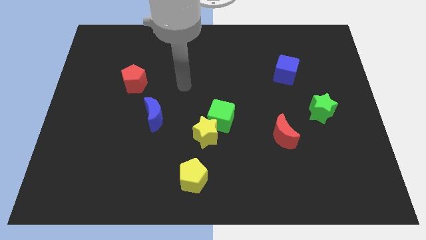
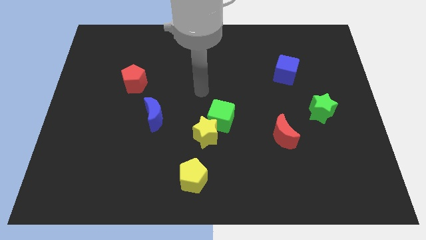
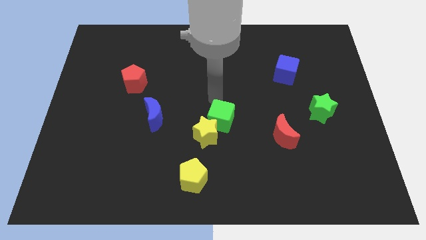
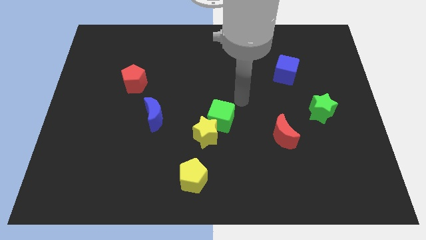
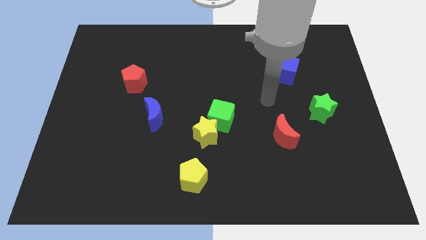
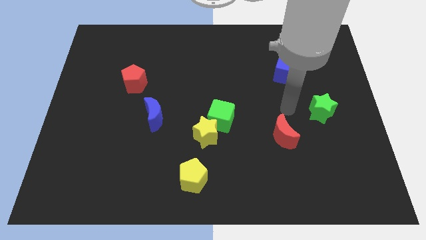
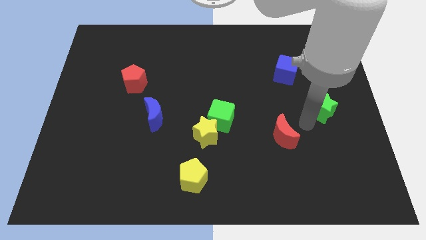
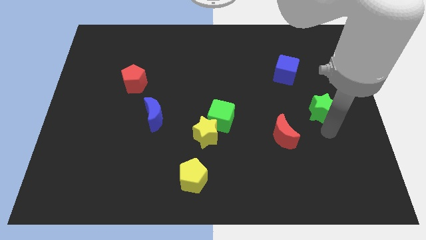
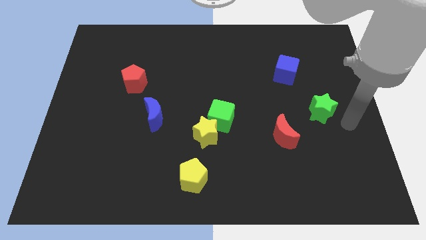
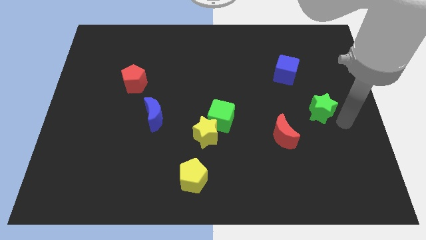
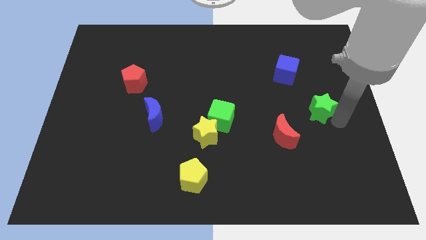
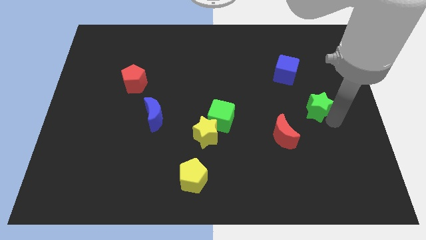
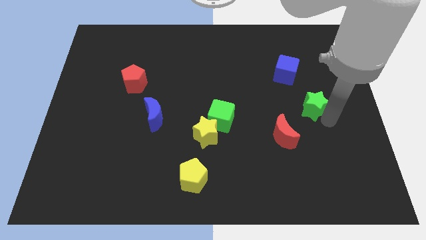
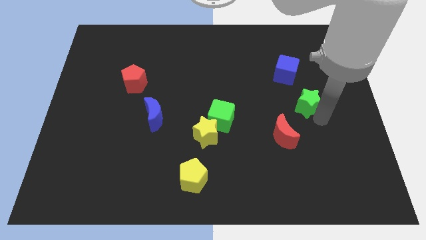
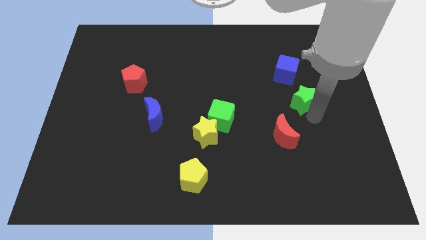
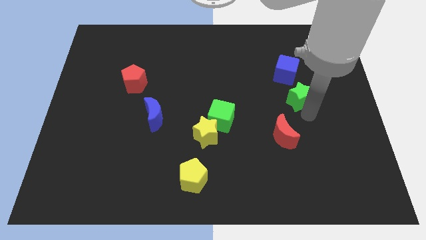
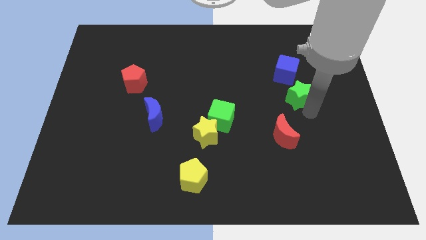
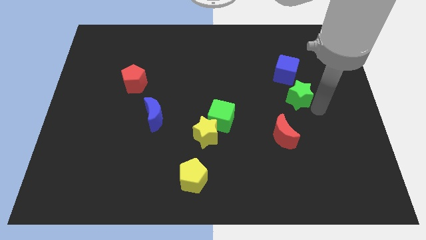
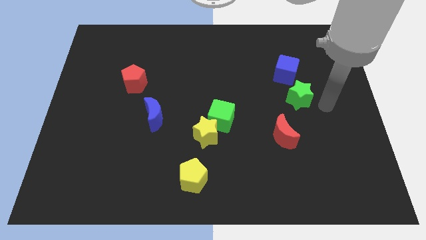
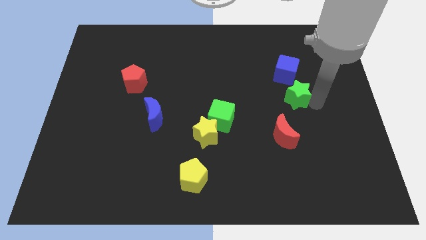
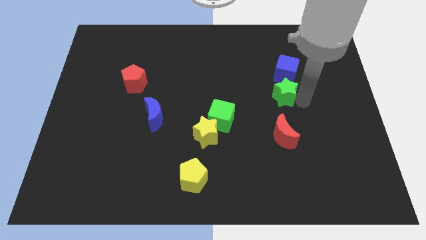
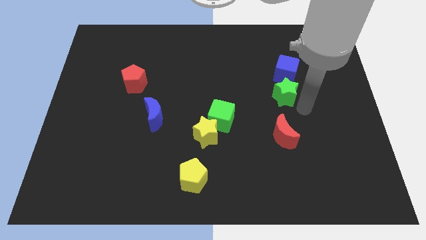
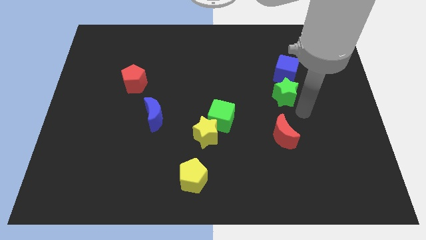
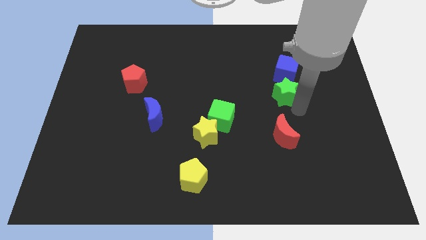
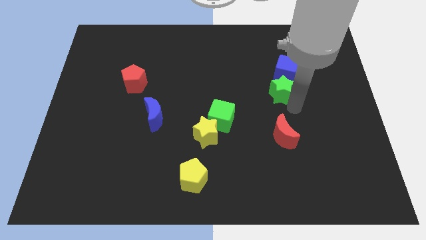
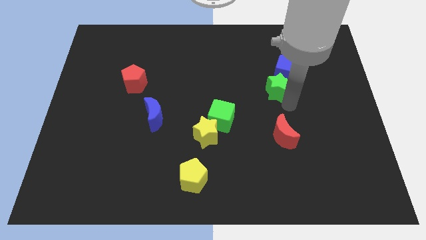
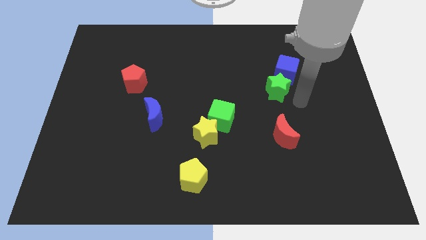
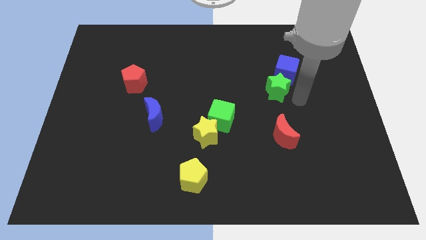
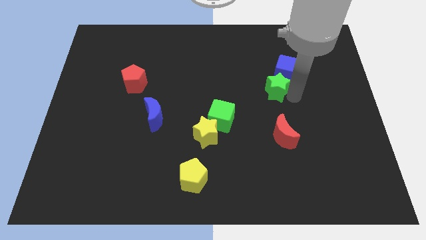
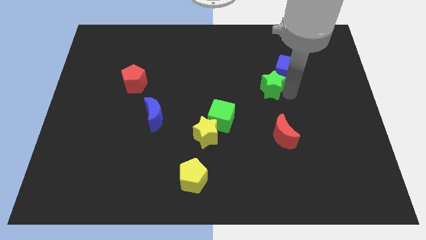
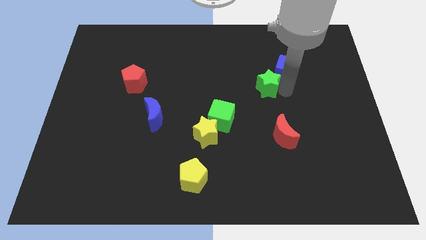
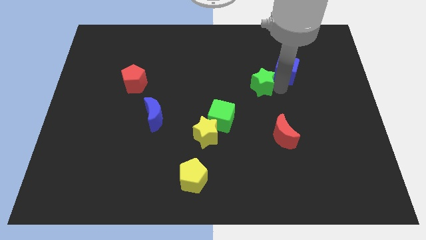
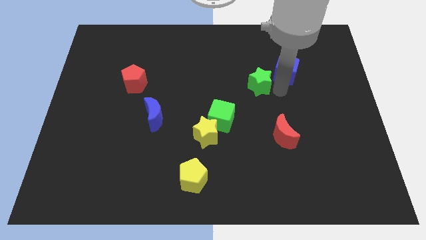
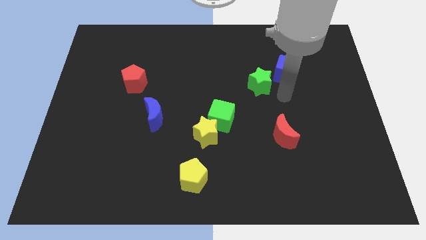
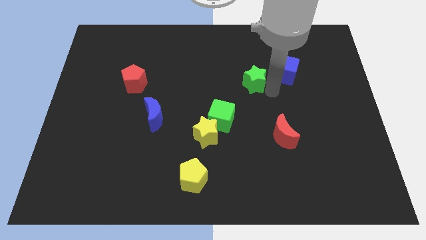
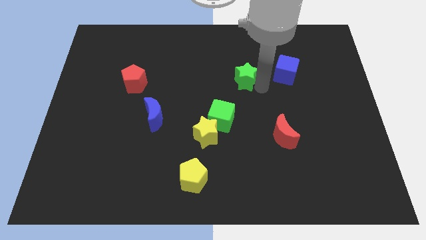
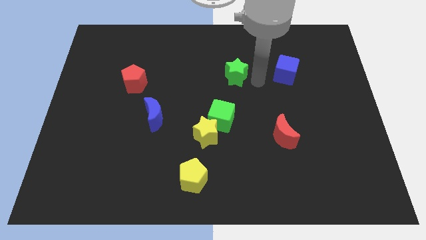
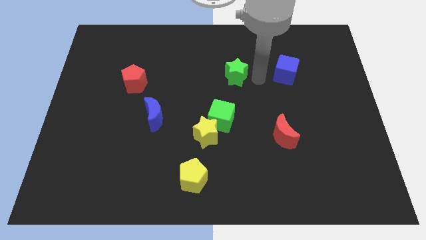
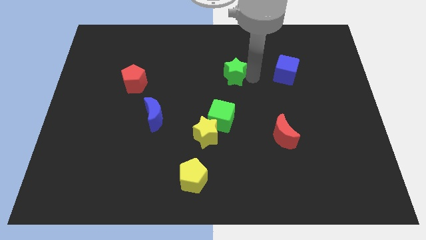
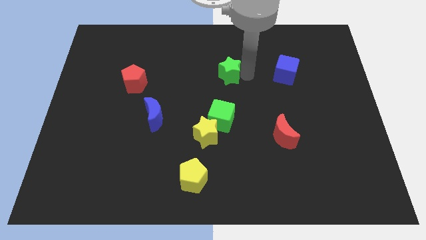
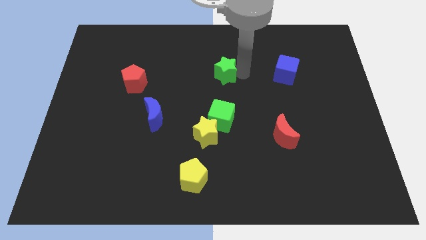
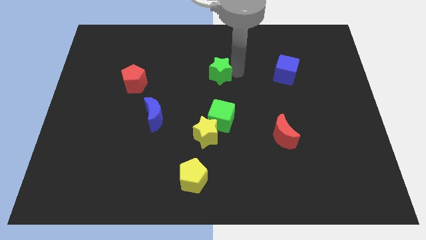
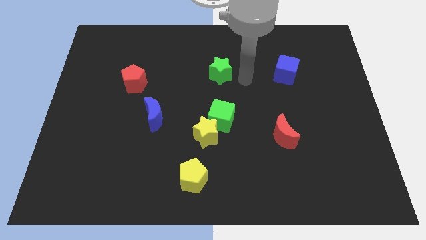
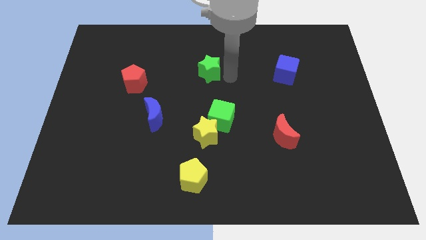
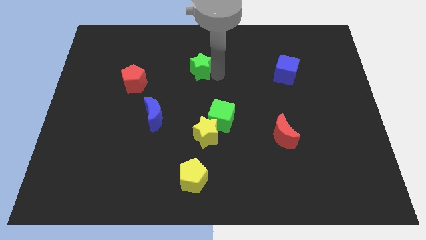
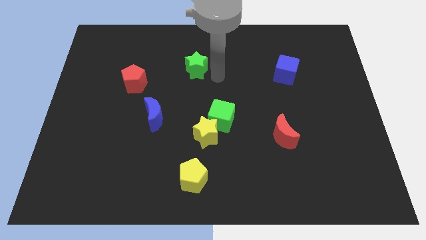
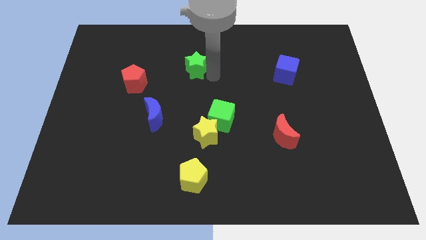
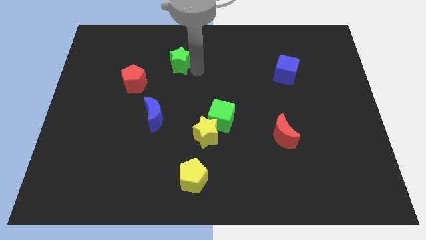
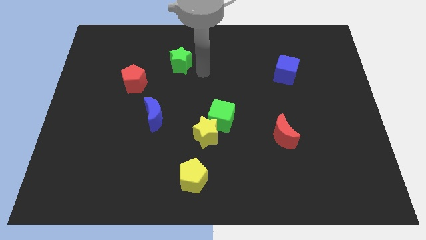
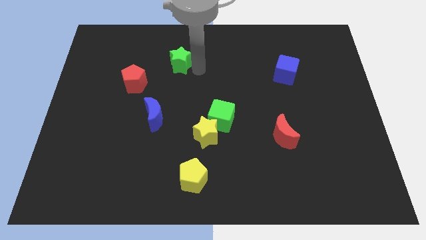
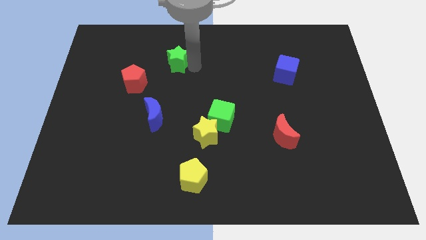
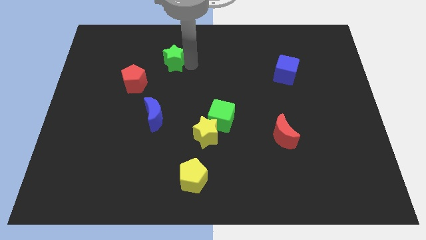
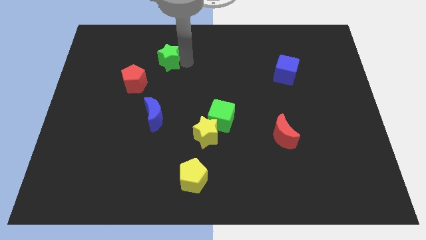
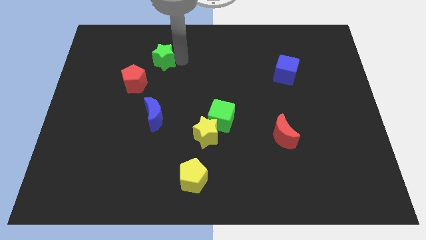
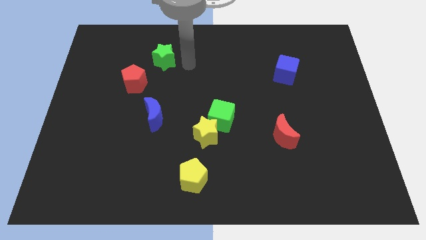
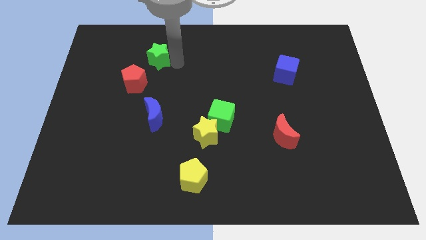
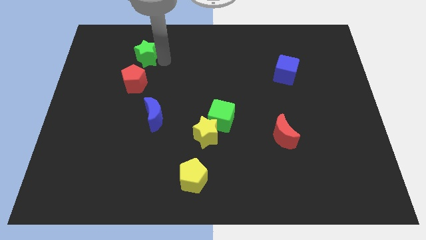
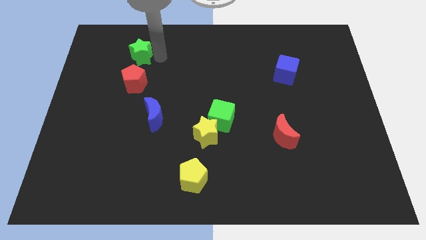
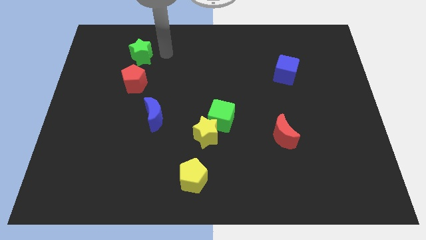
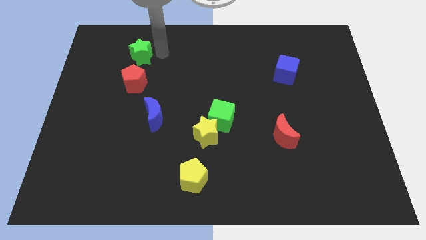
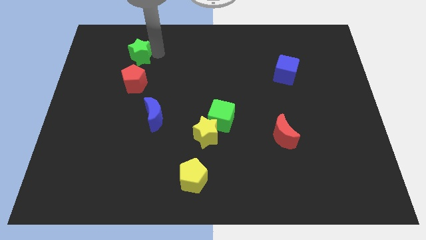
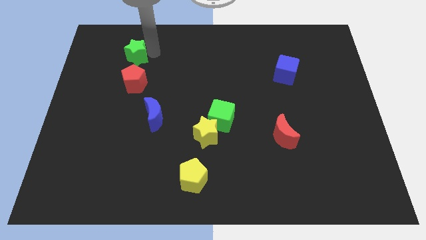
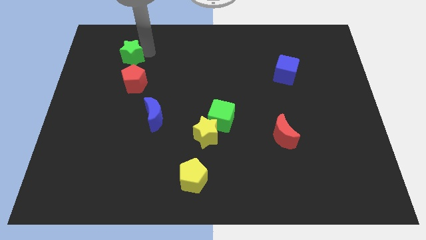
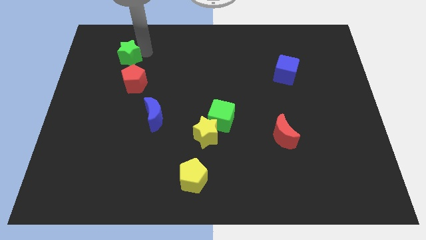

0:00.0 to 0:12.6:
push the green star diagonally up and to the left of the red pentagon

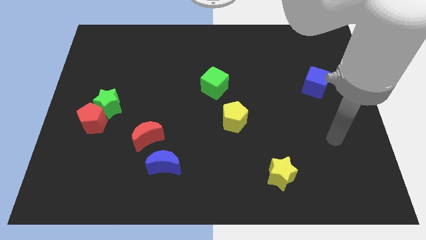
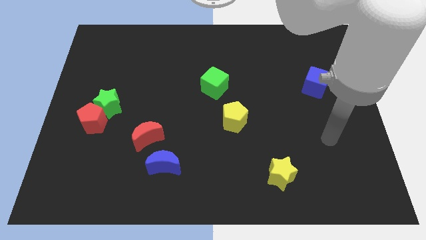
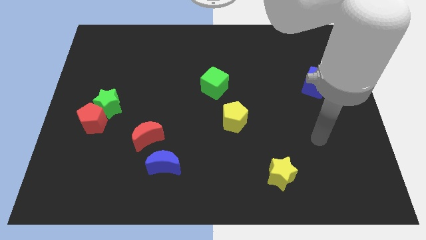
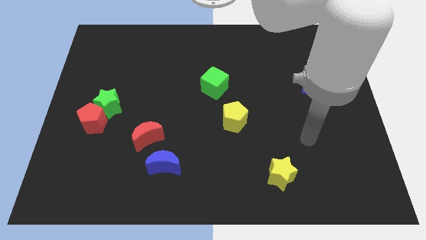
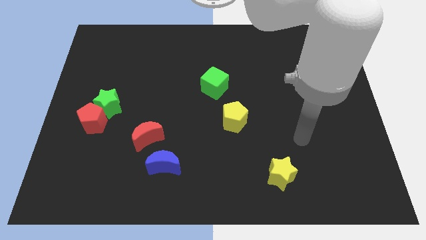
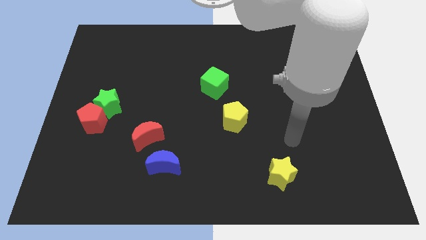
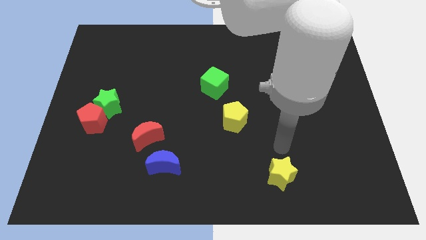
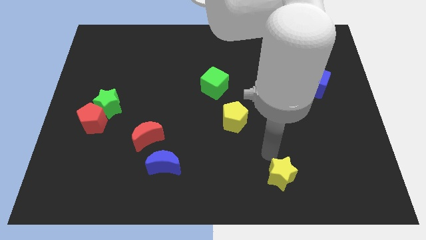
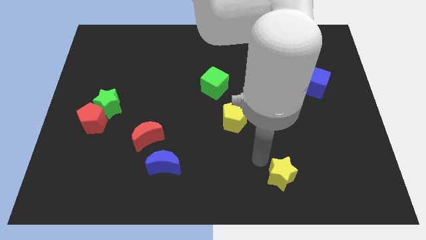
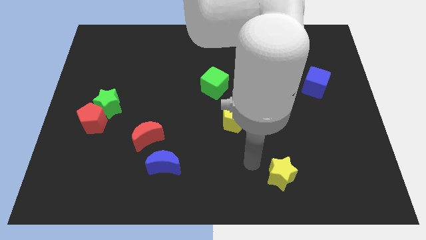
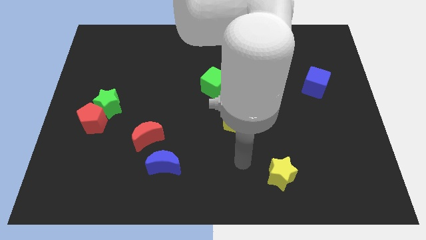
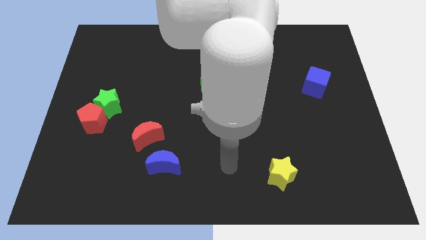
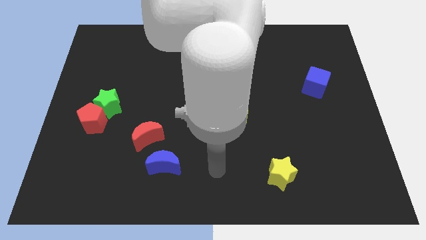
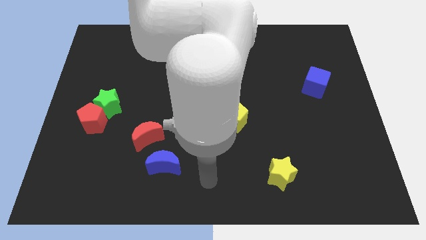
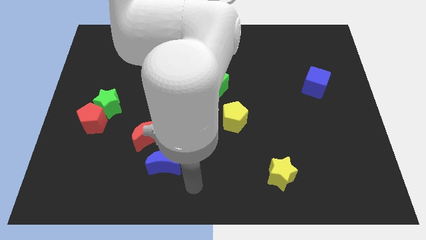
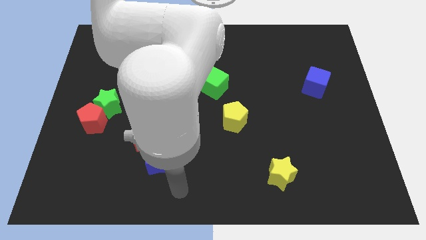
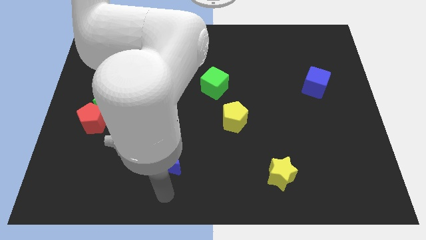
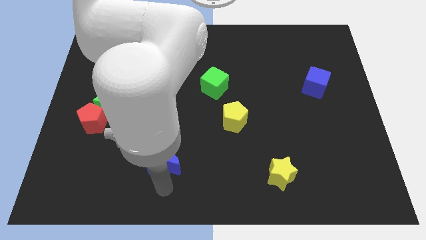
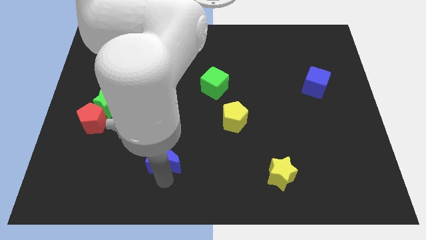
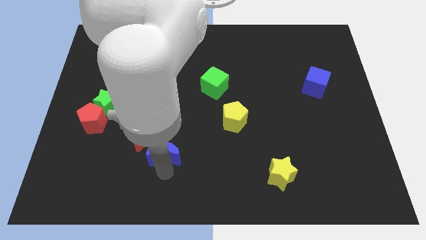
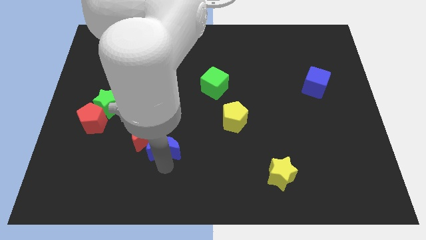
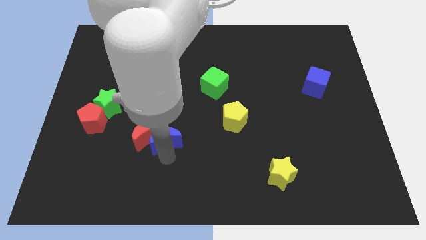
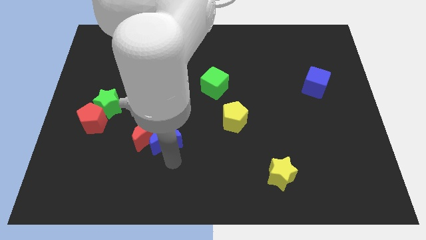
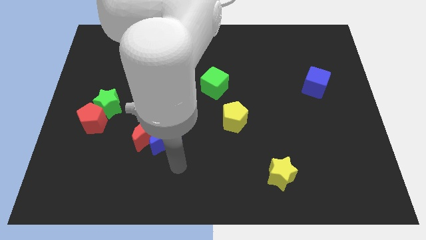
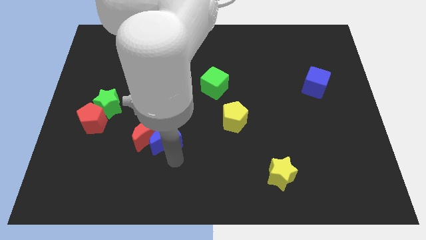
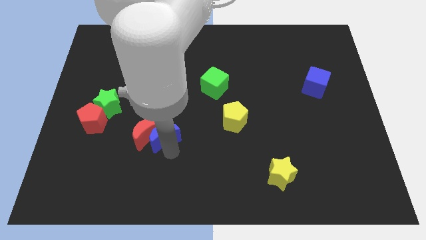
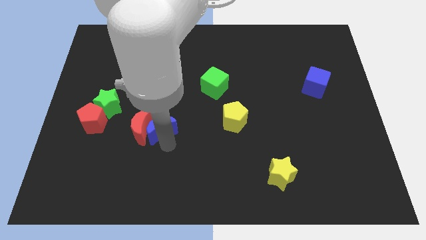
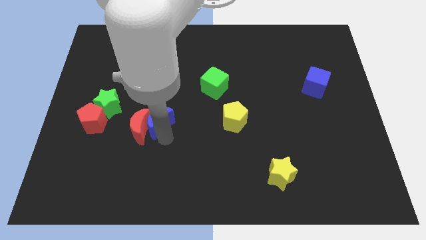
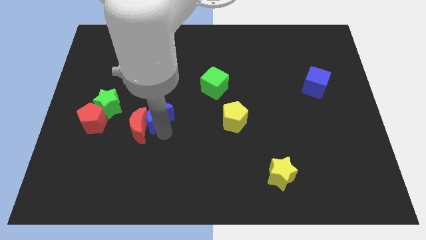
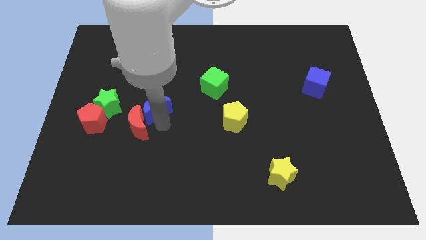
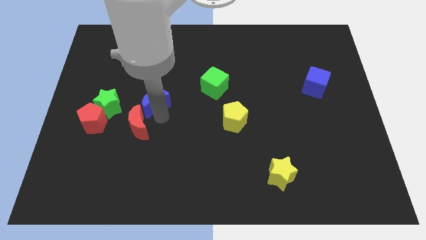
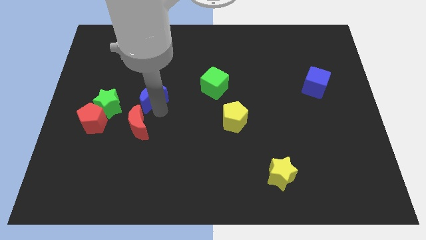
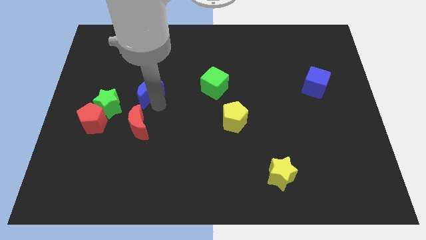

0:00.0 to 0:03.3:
slide the blue moon to the top right side of the green star
